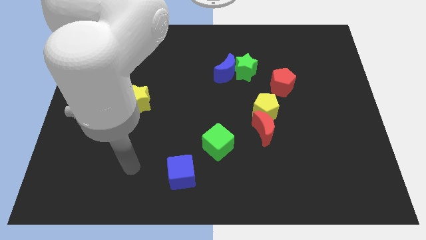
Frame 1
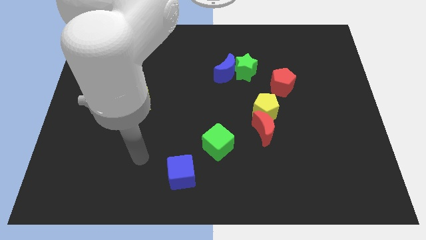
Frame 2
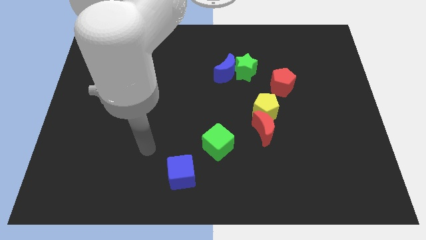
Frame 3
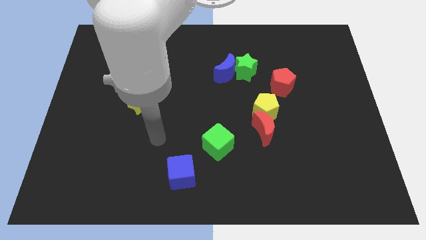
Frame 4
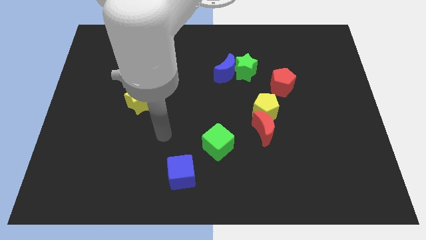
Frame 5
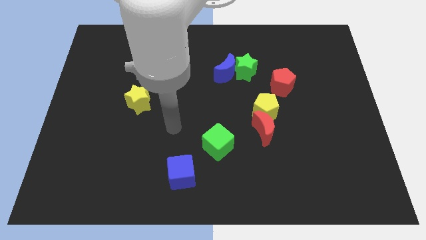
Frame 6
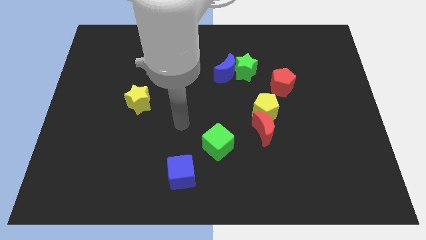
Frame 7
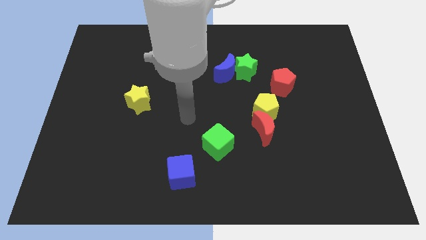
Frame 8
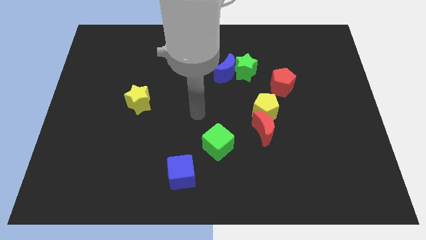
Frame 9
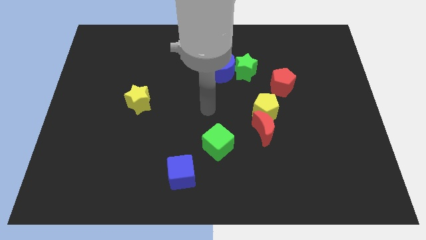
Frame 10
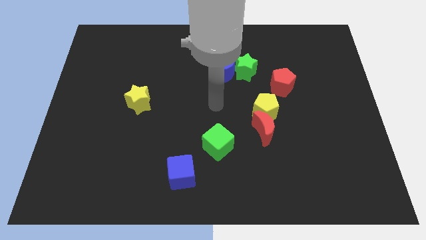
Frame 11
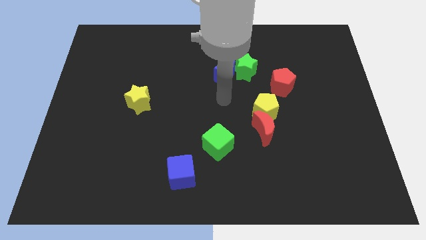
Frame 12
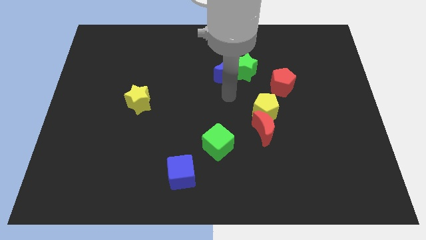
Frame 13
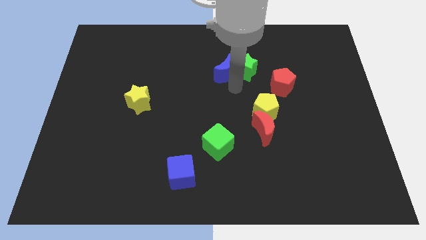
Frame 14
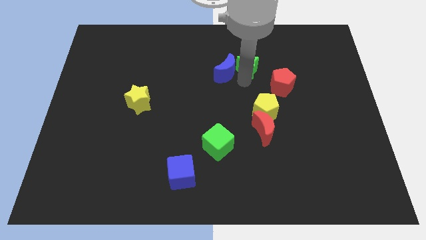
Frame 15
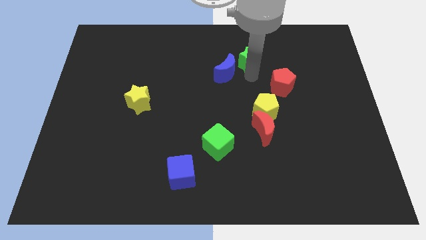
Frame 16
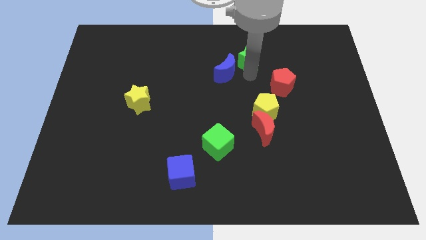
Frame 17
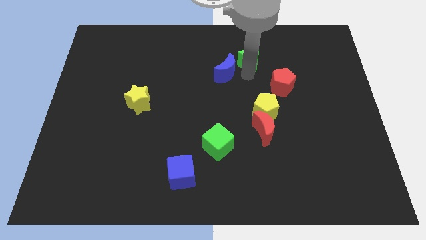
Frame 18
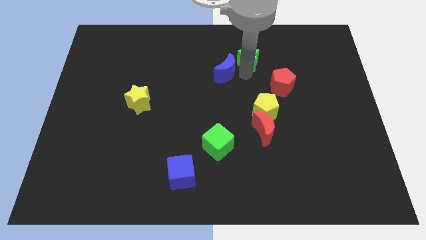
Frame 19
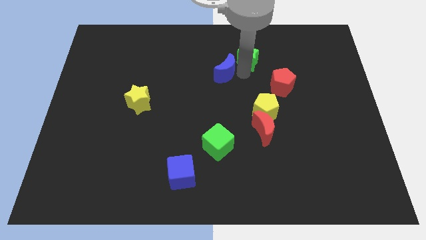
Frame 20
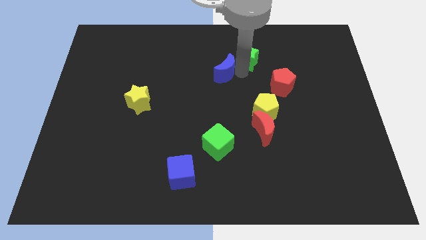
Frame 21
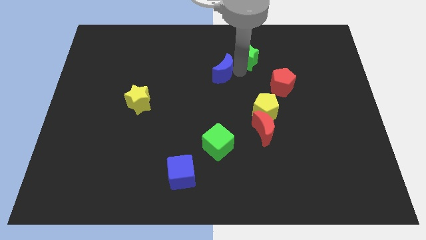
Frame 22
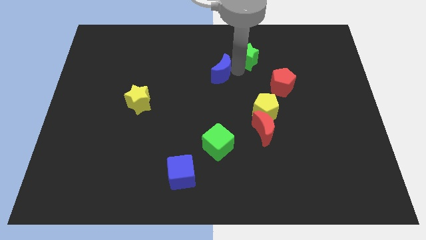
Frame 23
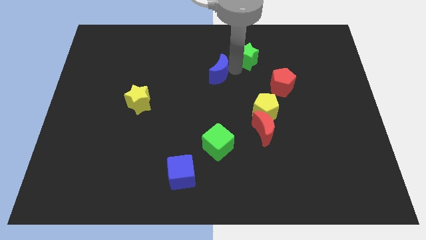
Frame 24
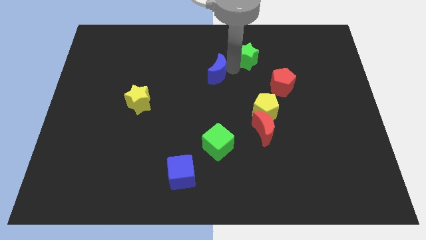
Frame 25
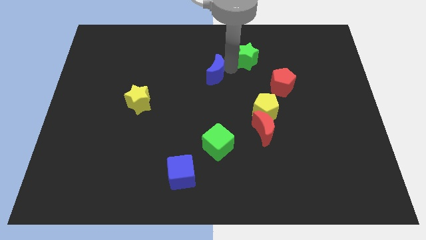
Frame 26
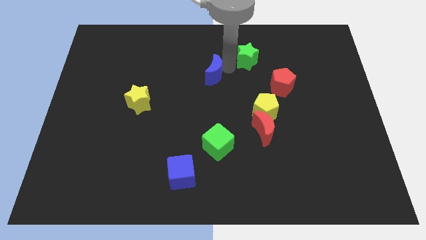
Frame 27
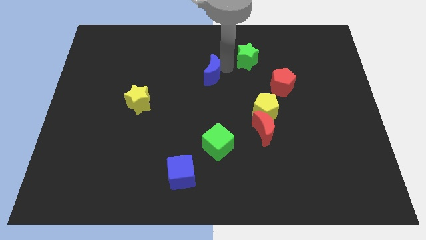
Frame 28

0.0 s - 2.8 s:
separate the blue moon from the green star

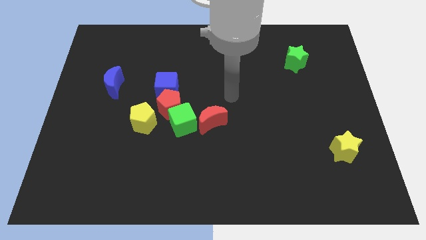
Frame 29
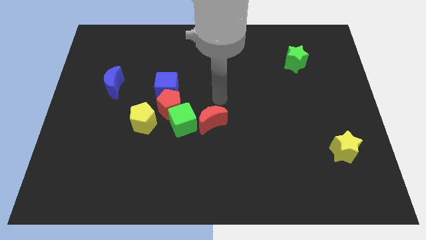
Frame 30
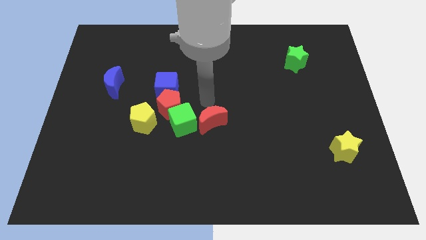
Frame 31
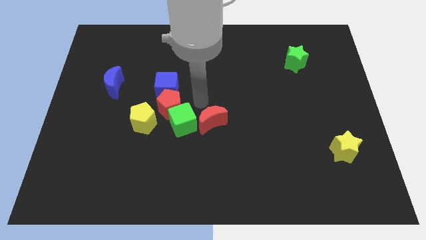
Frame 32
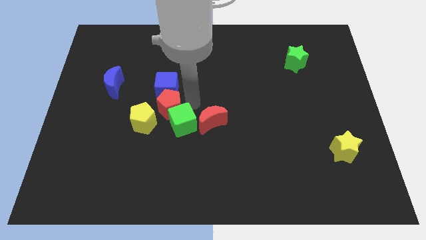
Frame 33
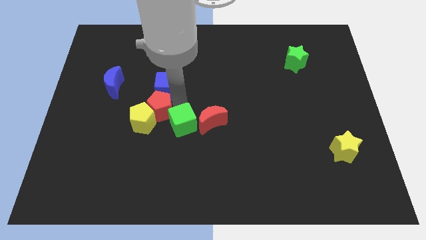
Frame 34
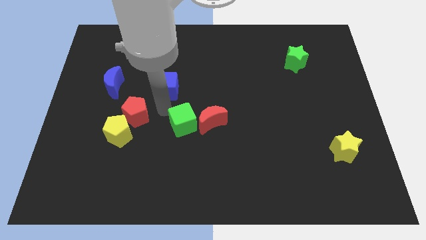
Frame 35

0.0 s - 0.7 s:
pull the blue cube apart from the red pentagon

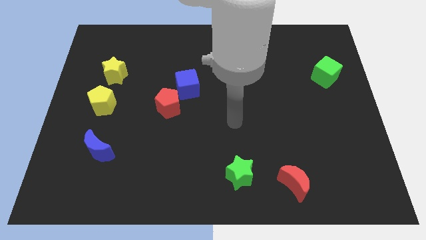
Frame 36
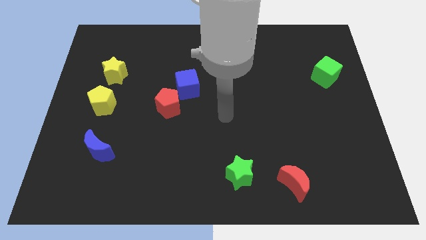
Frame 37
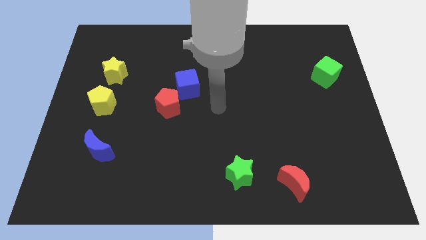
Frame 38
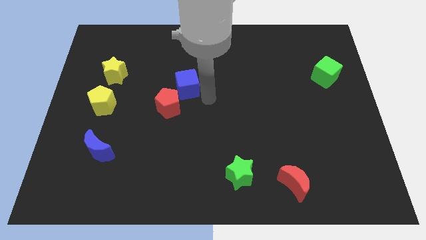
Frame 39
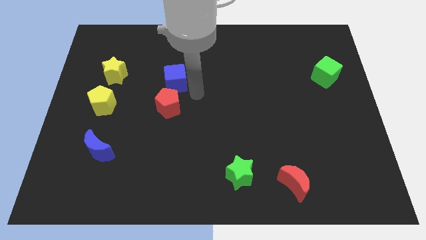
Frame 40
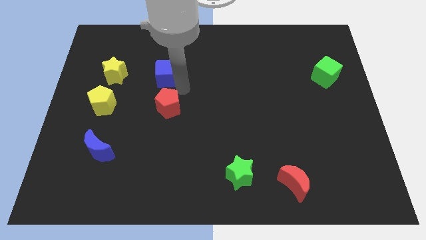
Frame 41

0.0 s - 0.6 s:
separate the red pentagon from the blue cube

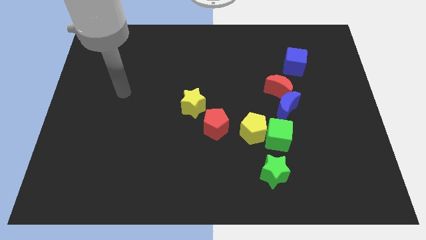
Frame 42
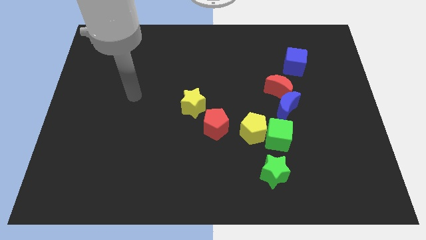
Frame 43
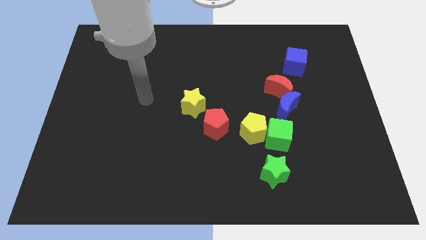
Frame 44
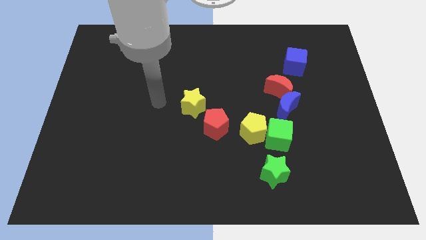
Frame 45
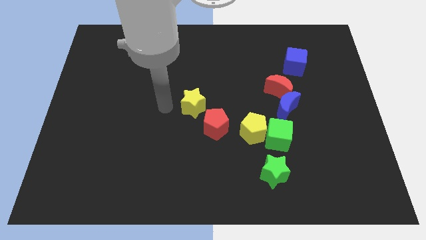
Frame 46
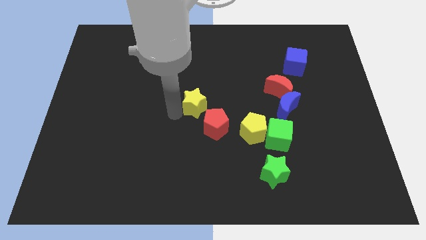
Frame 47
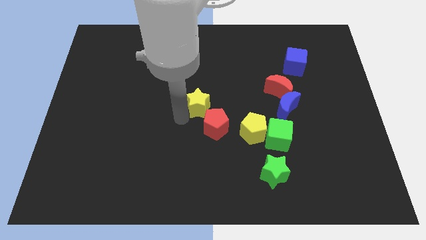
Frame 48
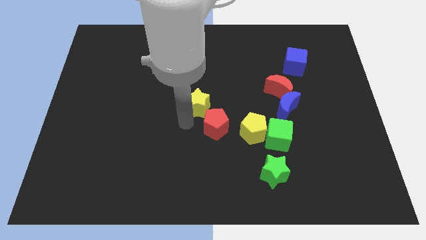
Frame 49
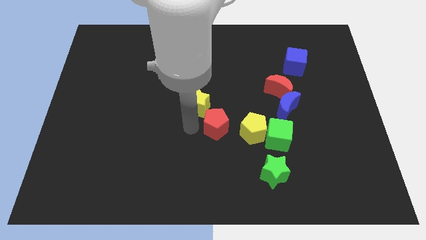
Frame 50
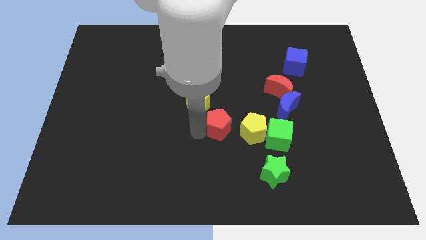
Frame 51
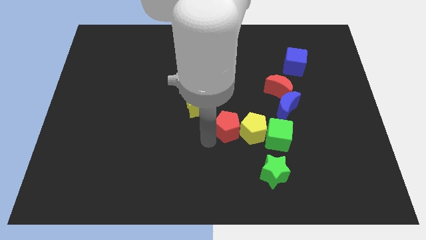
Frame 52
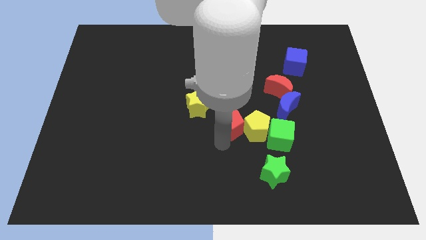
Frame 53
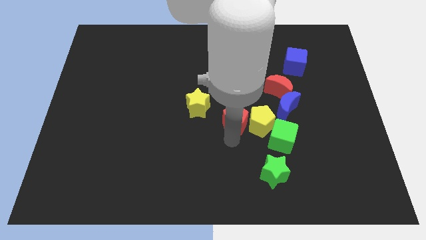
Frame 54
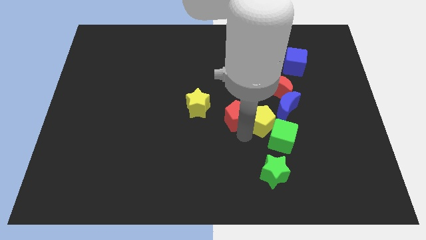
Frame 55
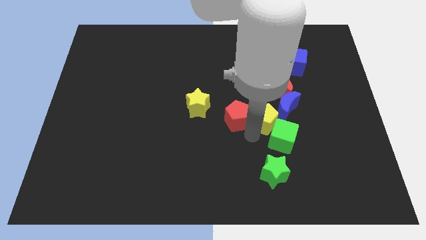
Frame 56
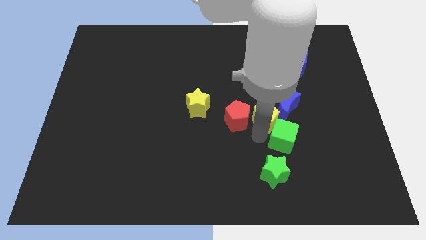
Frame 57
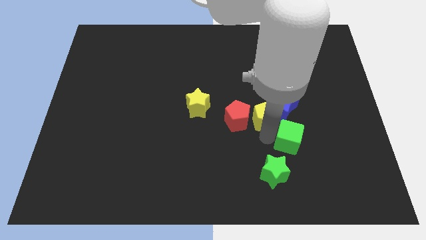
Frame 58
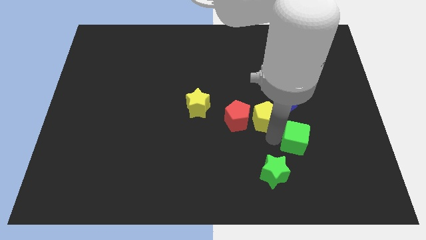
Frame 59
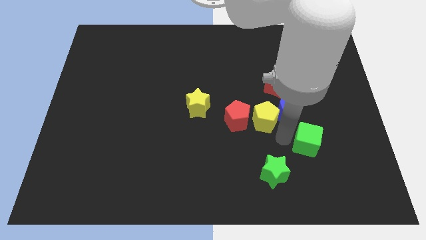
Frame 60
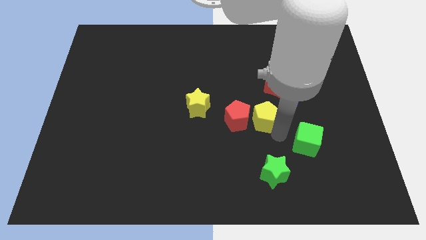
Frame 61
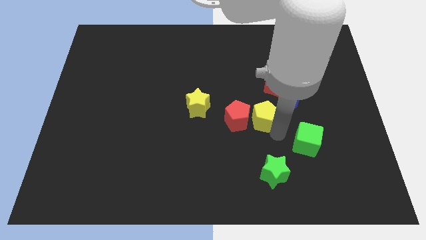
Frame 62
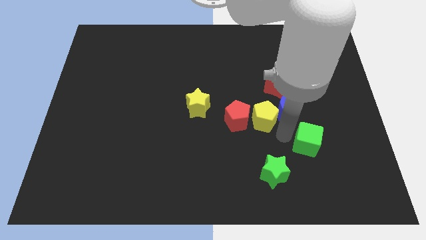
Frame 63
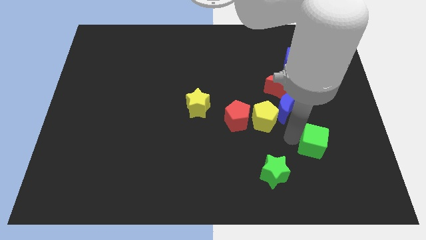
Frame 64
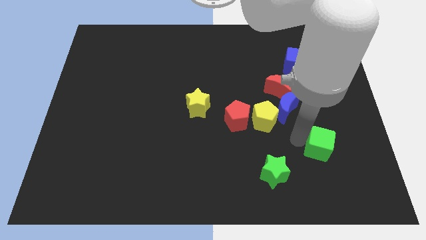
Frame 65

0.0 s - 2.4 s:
pull the green cube apart from the yellow pentagon, blue moon, and green star

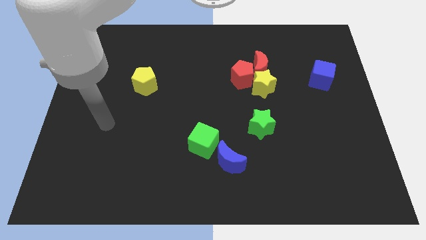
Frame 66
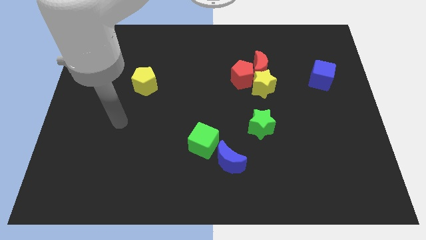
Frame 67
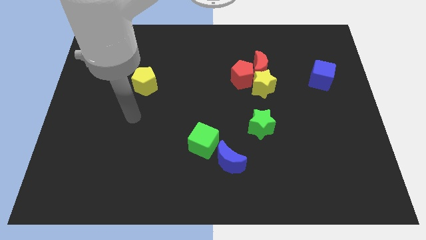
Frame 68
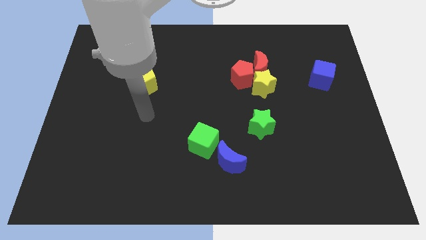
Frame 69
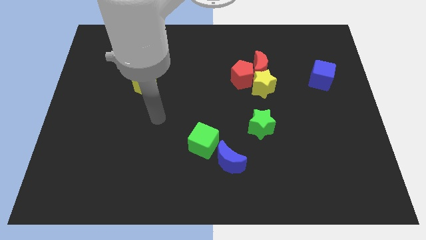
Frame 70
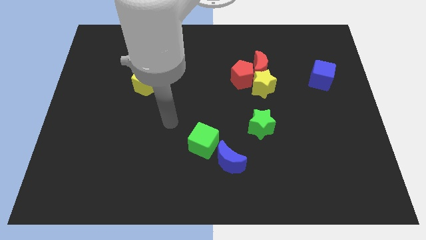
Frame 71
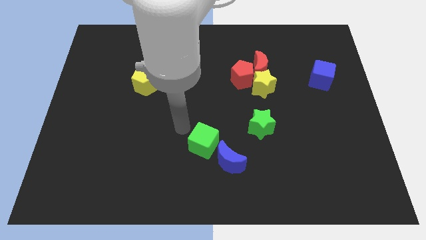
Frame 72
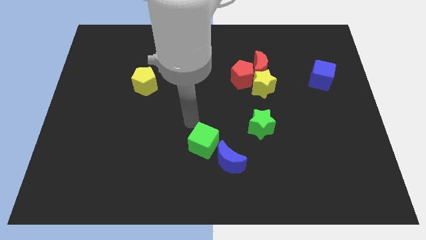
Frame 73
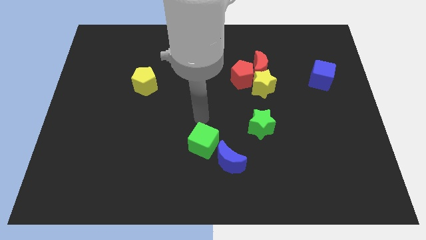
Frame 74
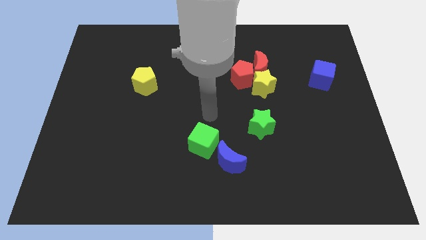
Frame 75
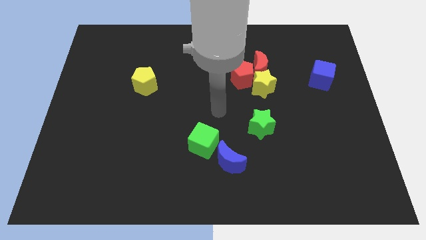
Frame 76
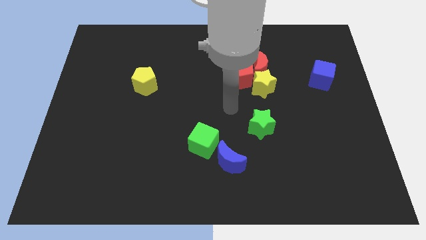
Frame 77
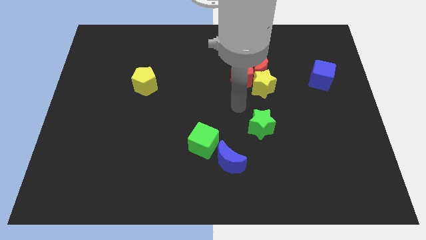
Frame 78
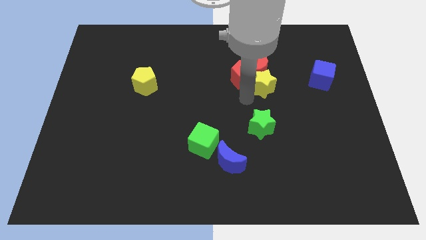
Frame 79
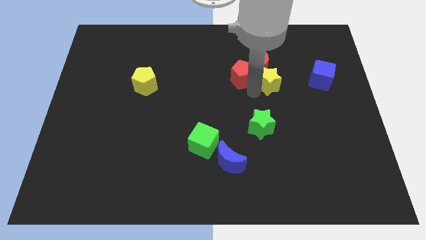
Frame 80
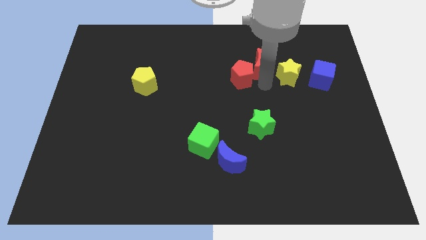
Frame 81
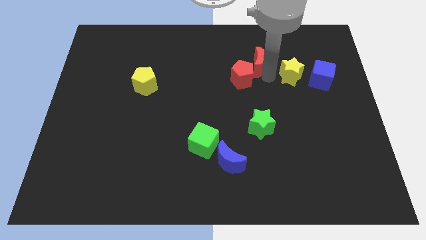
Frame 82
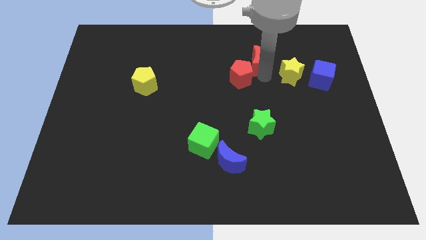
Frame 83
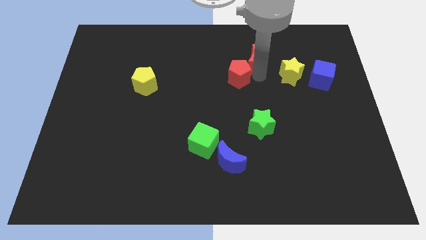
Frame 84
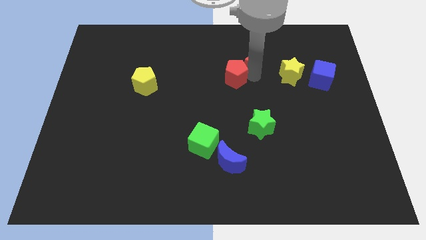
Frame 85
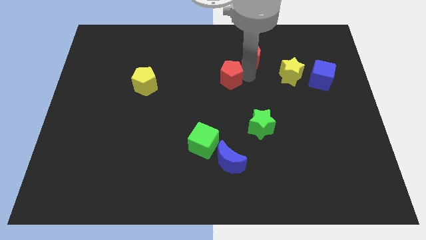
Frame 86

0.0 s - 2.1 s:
separate the red pentagon from the red moon and yellow star

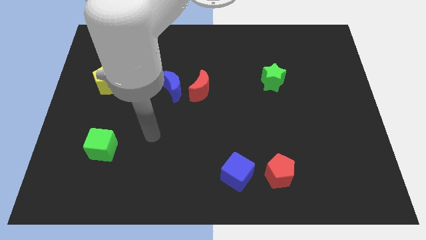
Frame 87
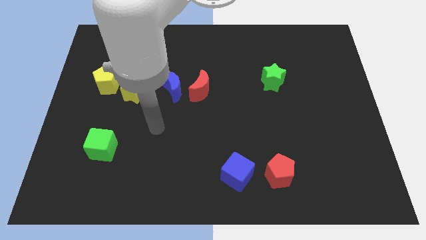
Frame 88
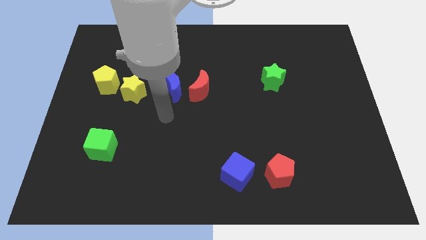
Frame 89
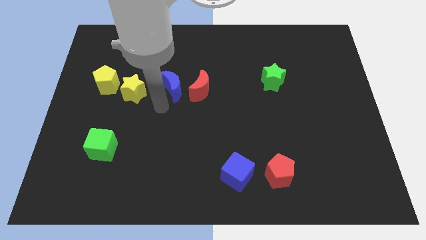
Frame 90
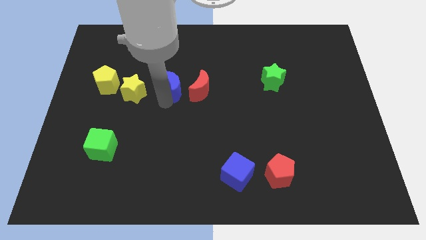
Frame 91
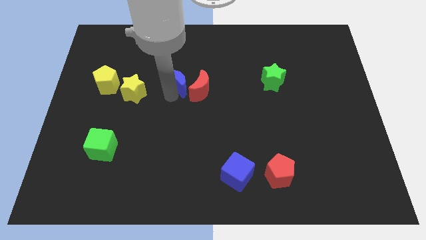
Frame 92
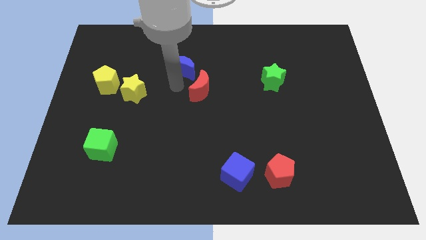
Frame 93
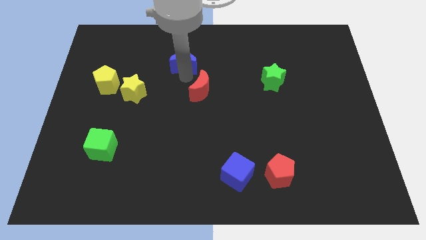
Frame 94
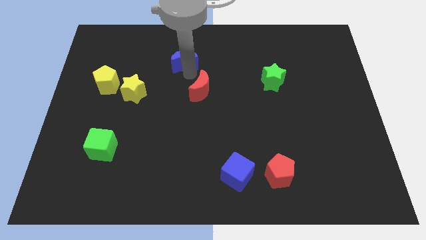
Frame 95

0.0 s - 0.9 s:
move the red moon away from the blue moon
